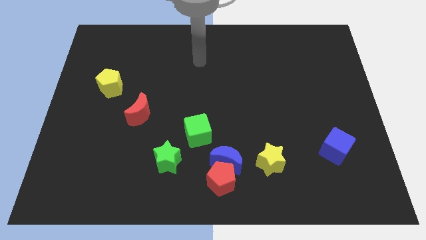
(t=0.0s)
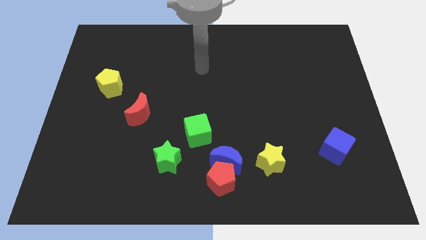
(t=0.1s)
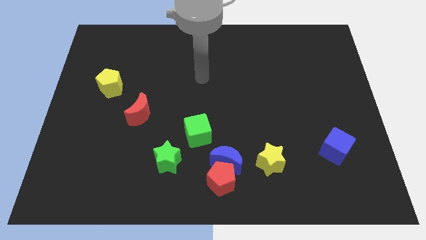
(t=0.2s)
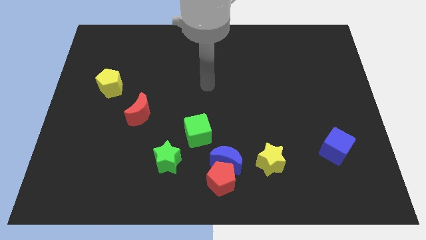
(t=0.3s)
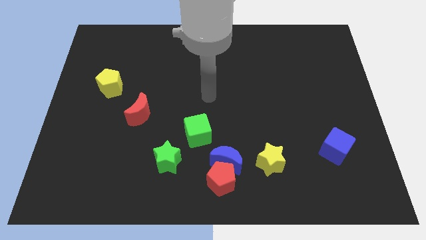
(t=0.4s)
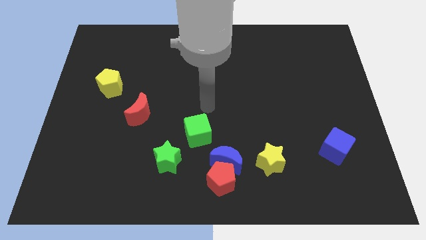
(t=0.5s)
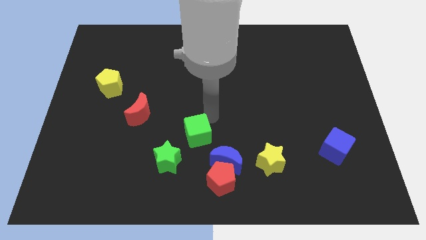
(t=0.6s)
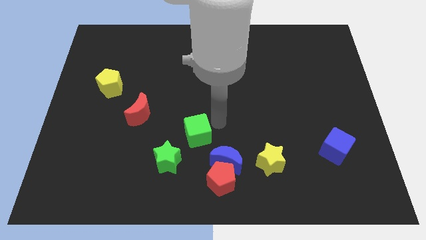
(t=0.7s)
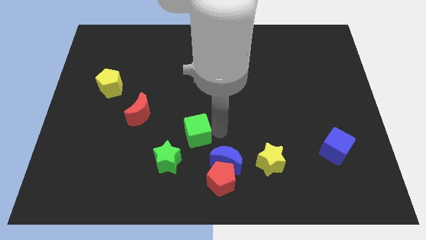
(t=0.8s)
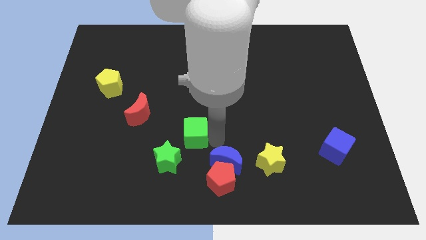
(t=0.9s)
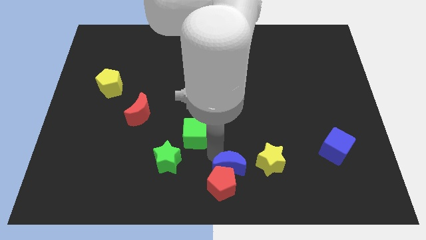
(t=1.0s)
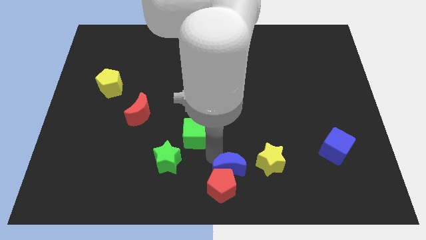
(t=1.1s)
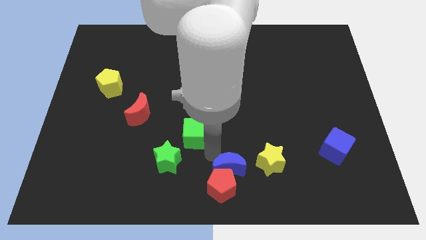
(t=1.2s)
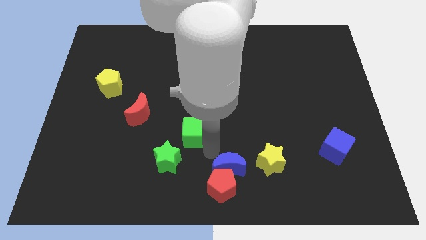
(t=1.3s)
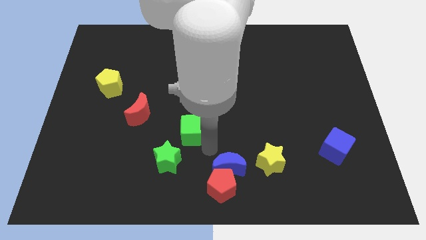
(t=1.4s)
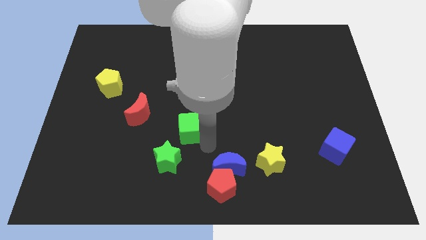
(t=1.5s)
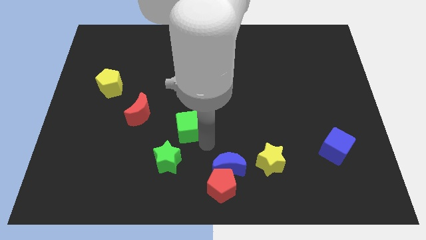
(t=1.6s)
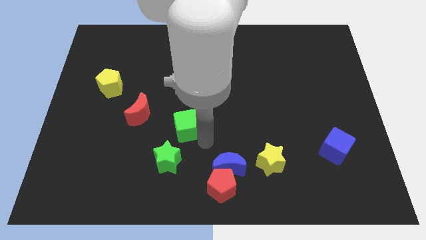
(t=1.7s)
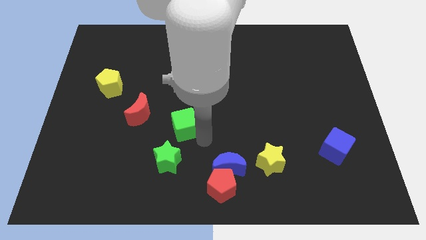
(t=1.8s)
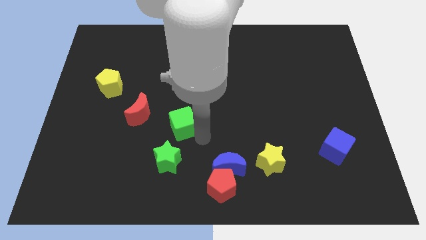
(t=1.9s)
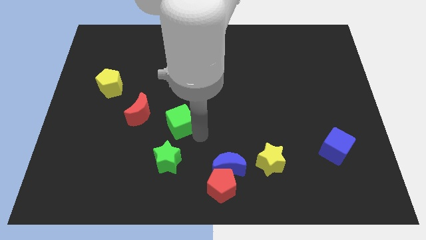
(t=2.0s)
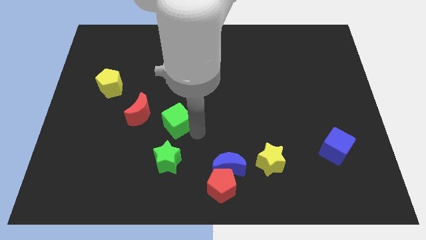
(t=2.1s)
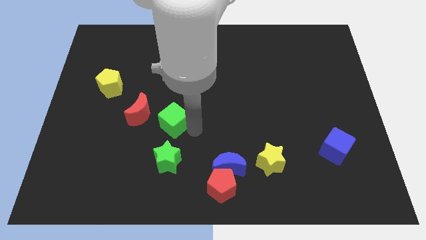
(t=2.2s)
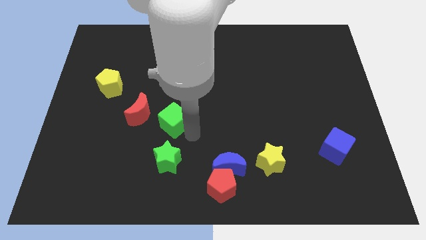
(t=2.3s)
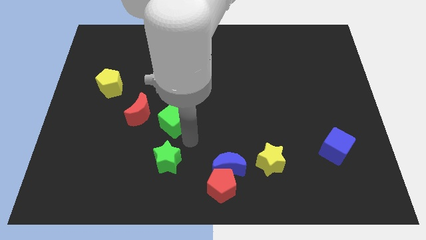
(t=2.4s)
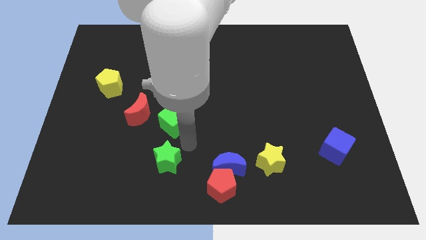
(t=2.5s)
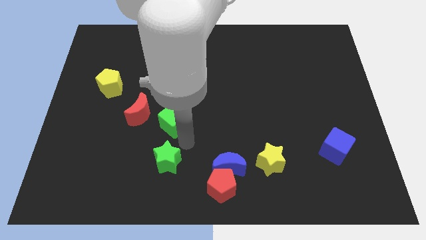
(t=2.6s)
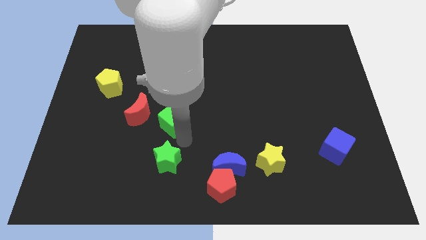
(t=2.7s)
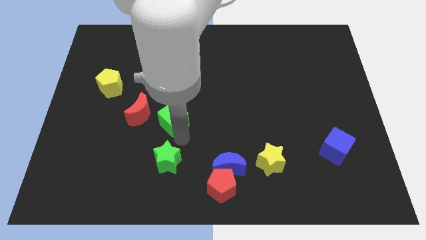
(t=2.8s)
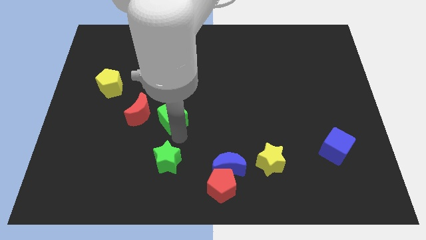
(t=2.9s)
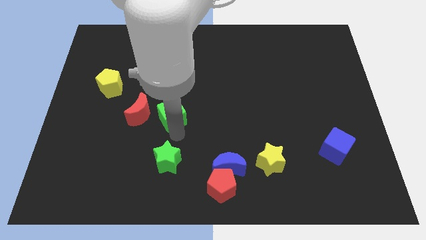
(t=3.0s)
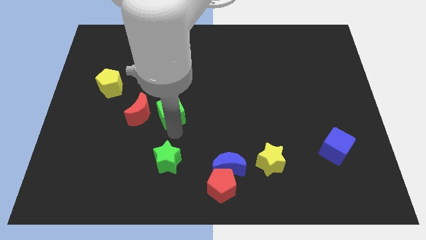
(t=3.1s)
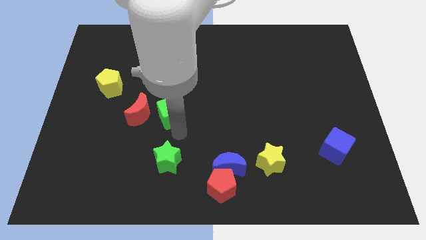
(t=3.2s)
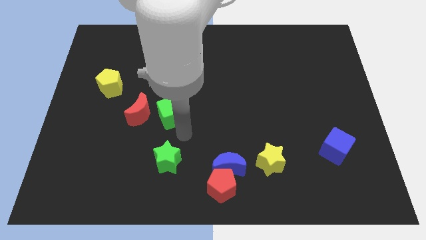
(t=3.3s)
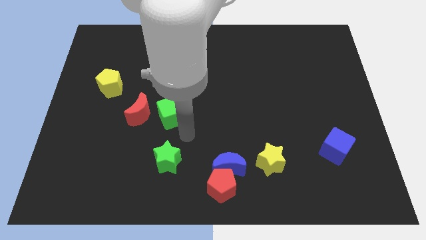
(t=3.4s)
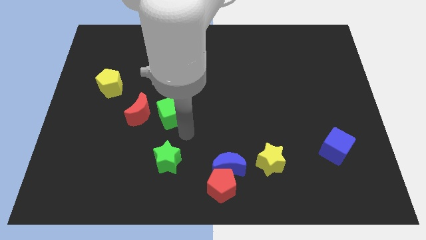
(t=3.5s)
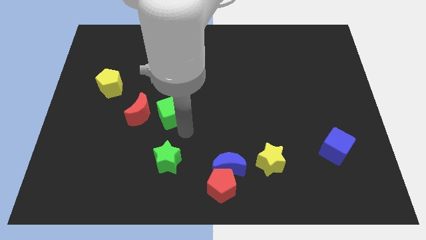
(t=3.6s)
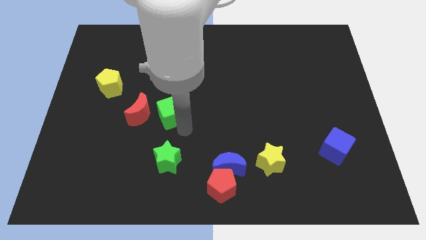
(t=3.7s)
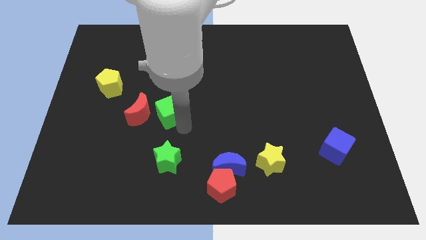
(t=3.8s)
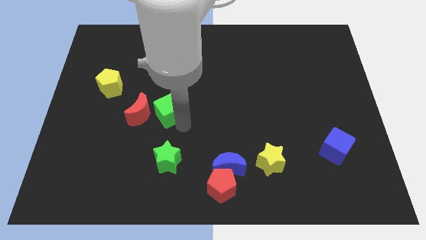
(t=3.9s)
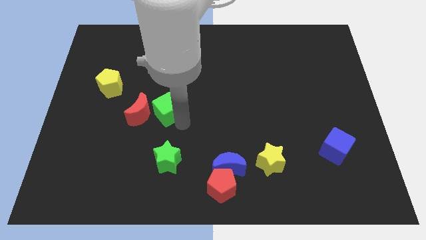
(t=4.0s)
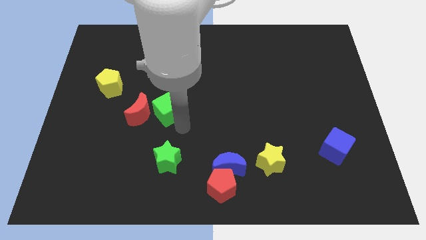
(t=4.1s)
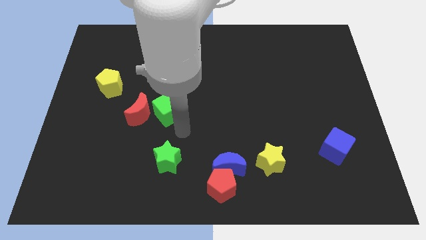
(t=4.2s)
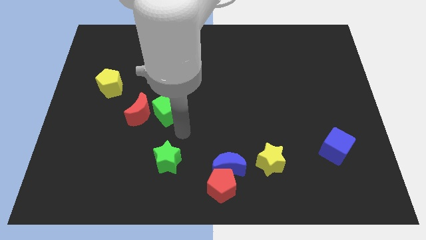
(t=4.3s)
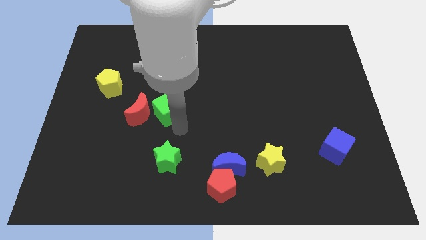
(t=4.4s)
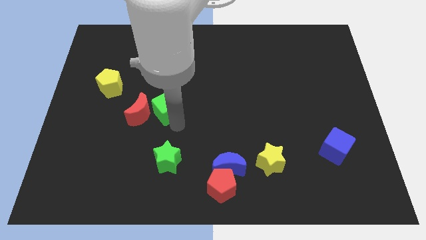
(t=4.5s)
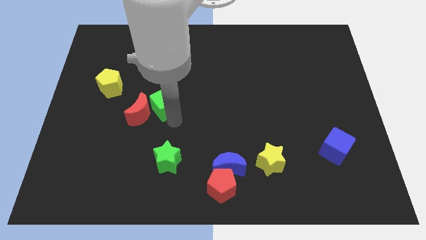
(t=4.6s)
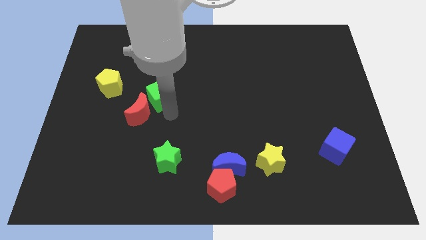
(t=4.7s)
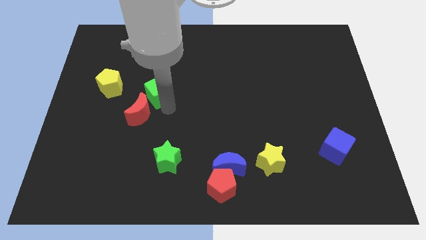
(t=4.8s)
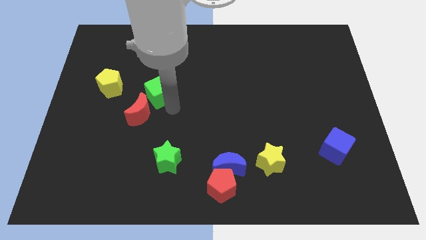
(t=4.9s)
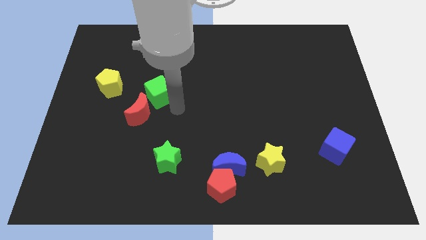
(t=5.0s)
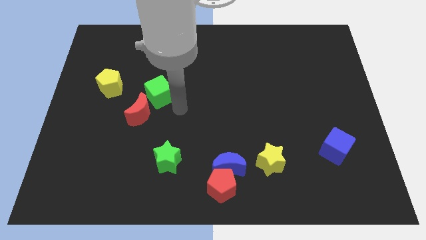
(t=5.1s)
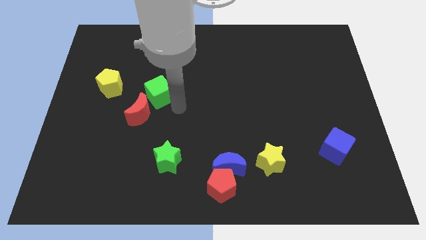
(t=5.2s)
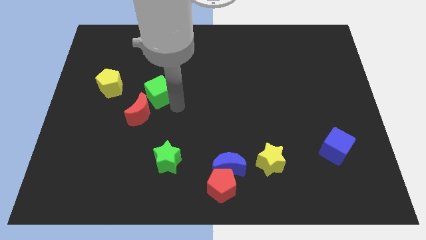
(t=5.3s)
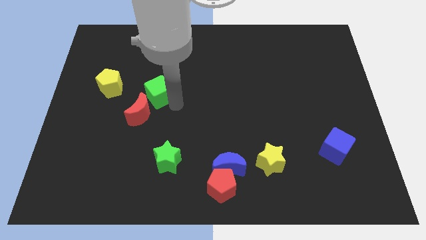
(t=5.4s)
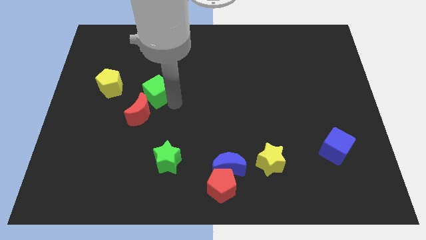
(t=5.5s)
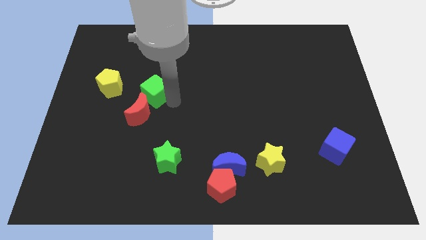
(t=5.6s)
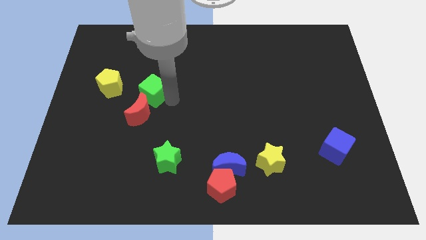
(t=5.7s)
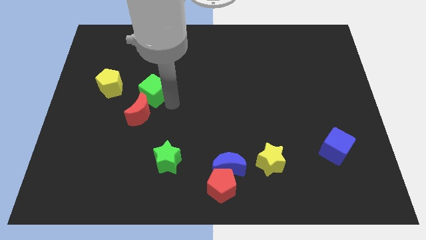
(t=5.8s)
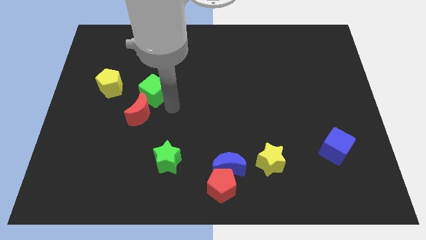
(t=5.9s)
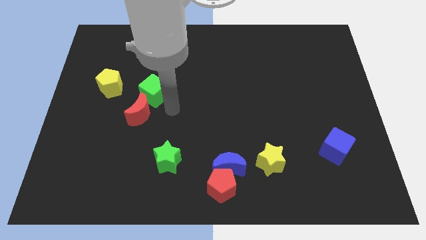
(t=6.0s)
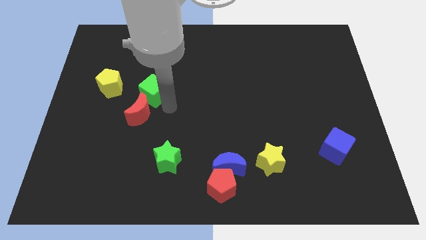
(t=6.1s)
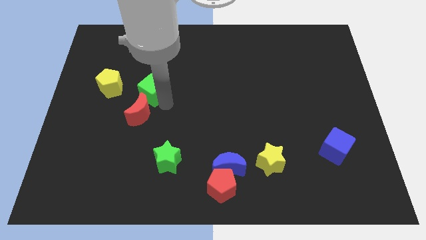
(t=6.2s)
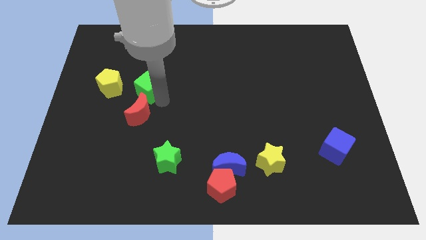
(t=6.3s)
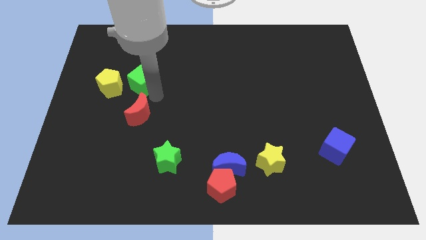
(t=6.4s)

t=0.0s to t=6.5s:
push the green cube up and left diagonally

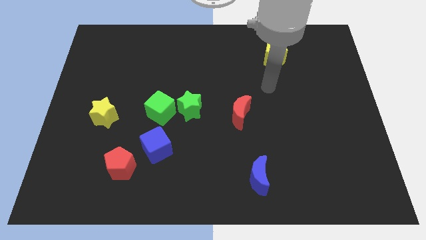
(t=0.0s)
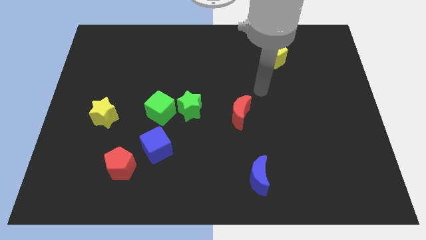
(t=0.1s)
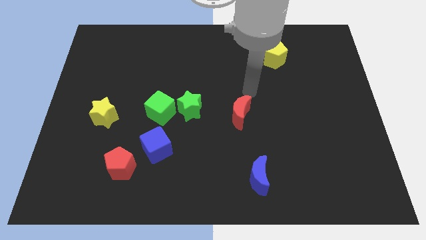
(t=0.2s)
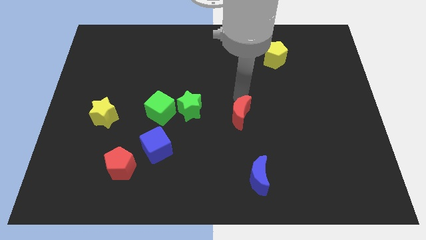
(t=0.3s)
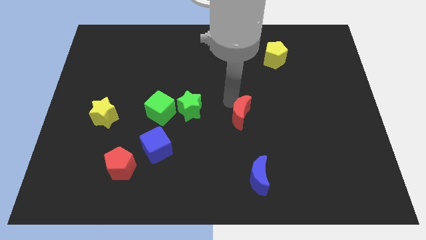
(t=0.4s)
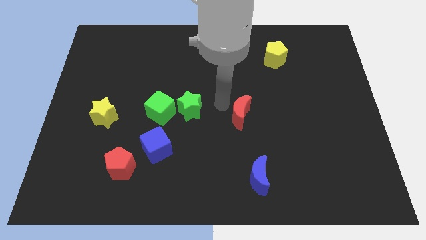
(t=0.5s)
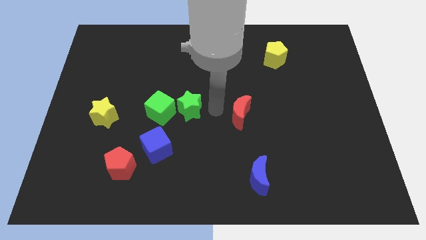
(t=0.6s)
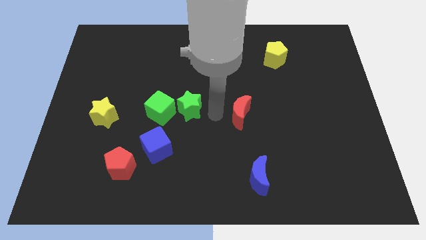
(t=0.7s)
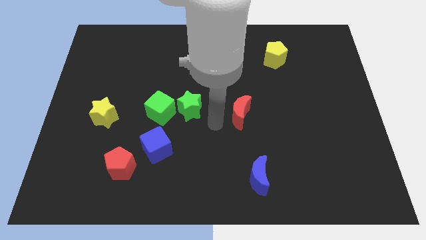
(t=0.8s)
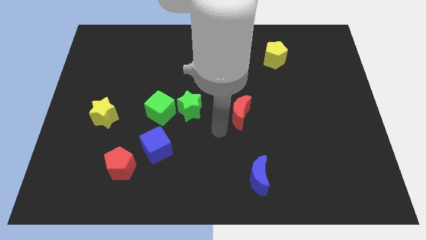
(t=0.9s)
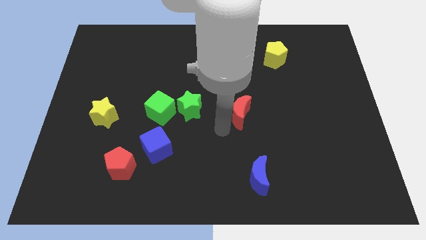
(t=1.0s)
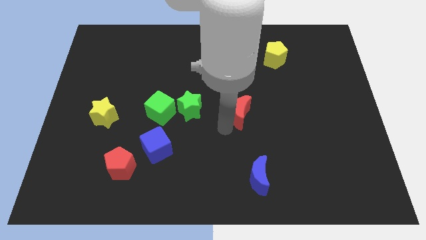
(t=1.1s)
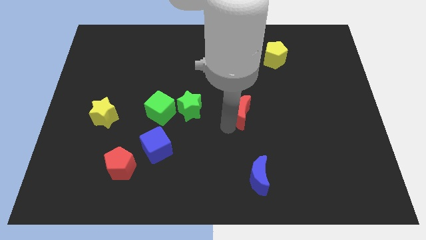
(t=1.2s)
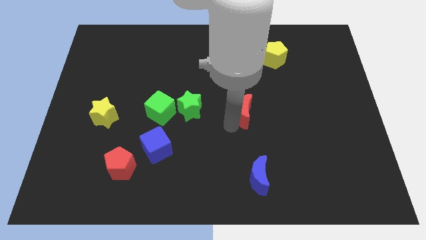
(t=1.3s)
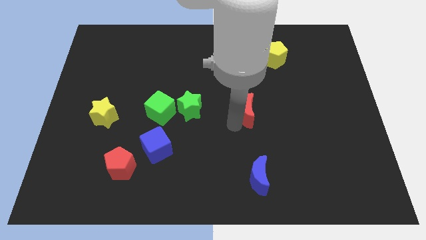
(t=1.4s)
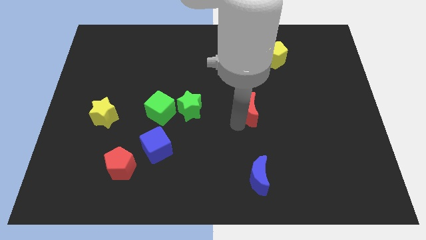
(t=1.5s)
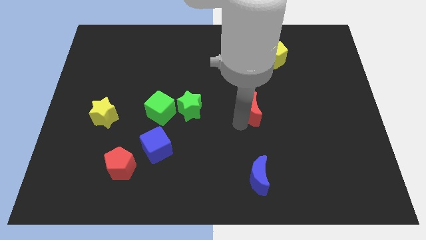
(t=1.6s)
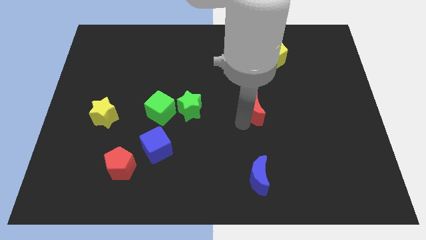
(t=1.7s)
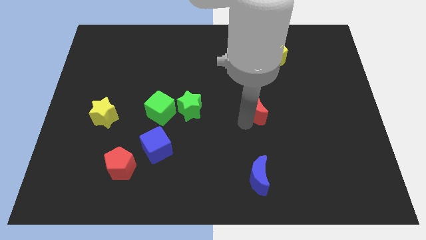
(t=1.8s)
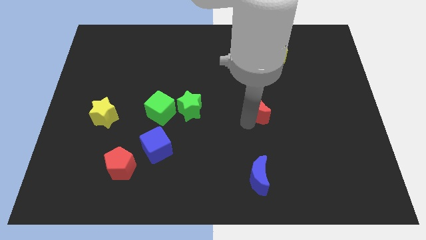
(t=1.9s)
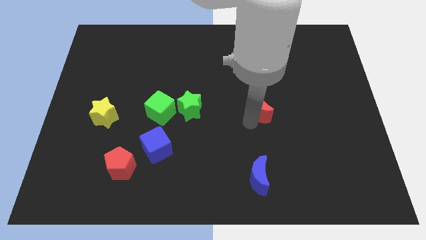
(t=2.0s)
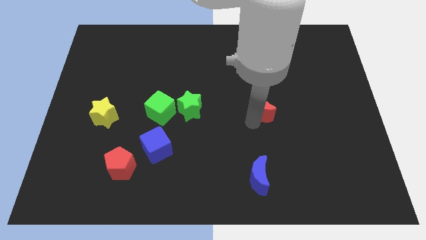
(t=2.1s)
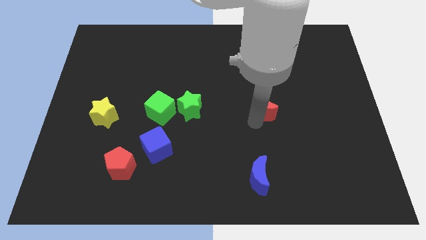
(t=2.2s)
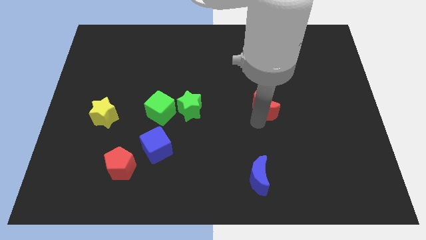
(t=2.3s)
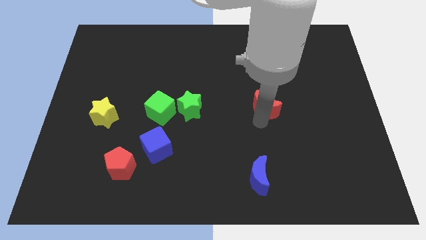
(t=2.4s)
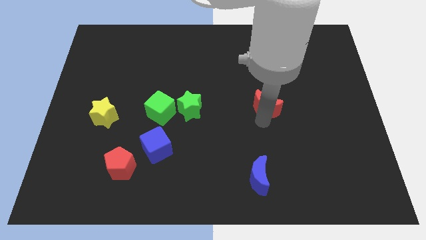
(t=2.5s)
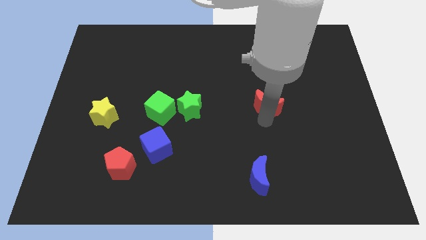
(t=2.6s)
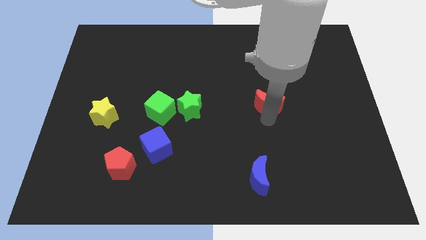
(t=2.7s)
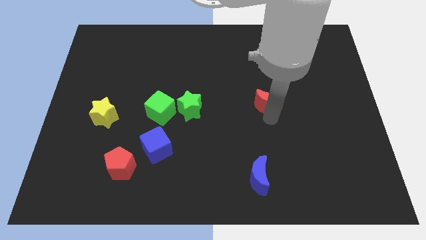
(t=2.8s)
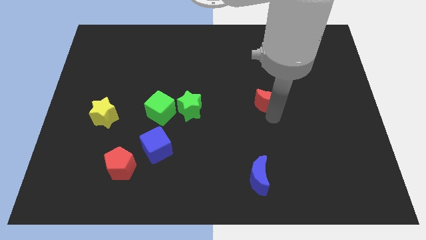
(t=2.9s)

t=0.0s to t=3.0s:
slightly slide the red moon upwards and right
